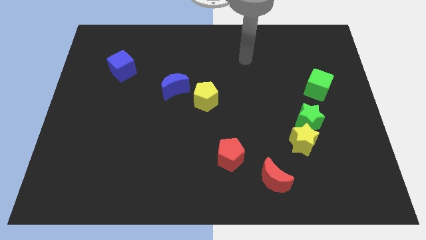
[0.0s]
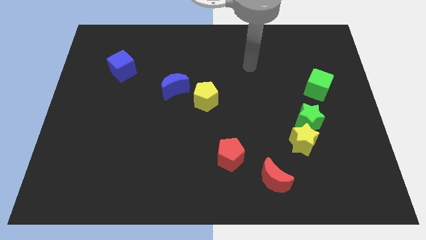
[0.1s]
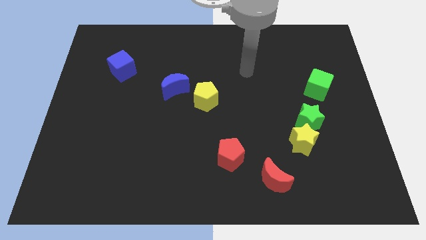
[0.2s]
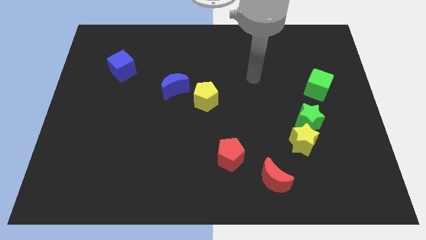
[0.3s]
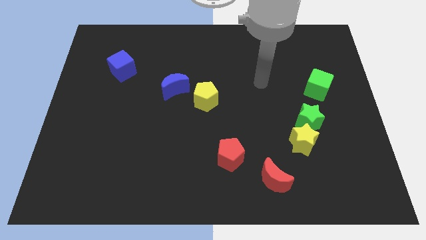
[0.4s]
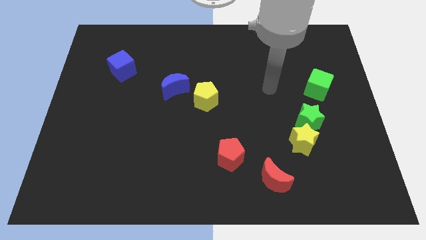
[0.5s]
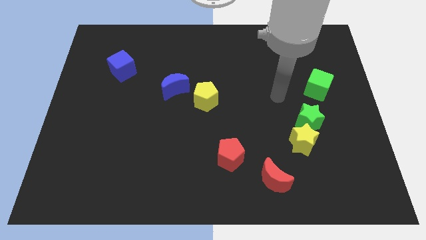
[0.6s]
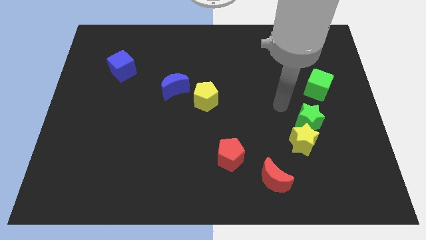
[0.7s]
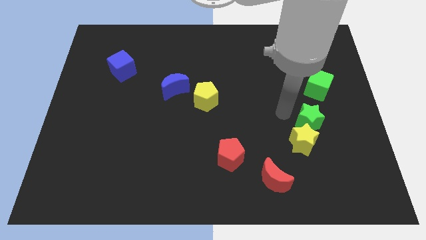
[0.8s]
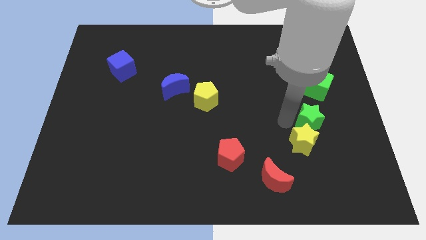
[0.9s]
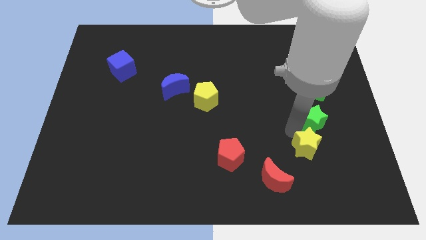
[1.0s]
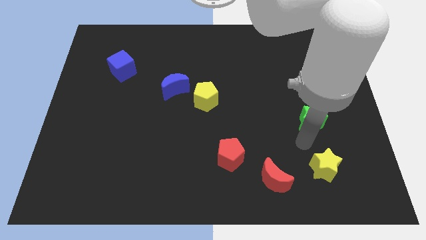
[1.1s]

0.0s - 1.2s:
separate the green star from the yellow star

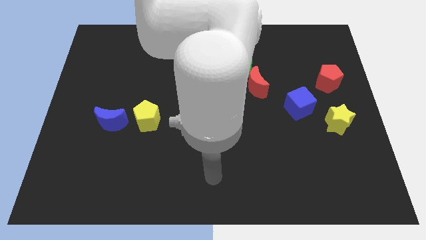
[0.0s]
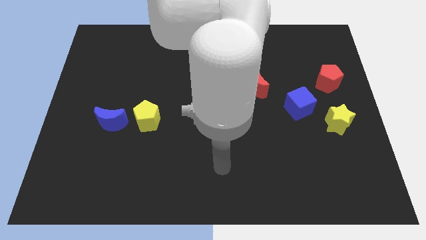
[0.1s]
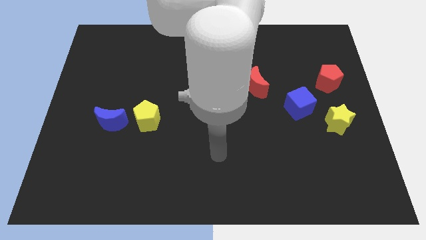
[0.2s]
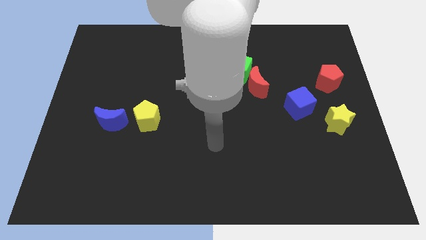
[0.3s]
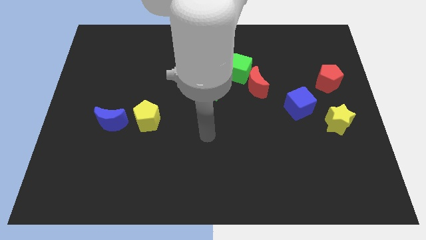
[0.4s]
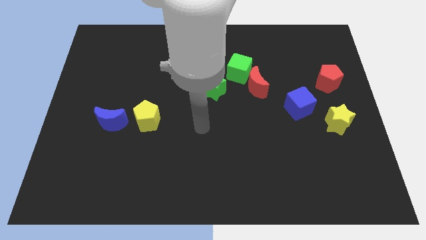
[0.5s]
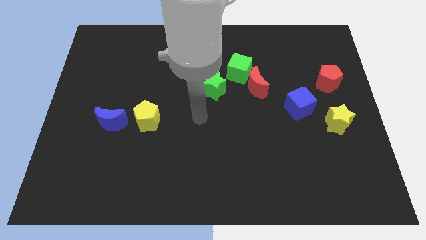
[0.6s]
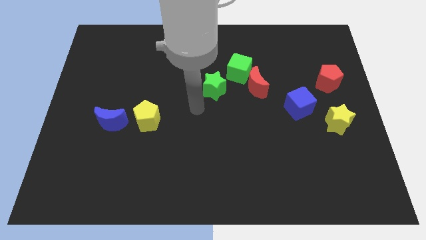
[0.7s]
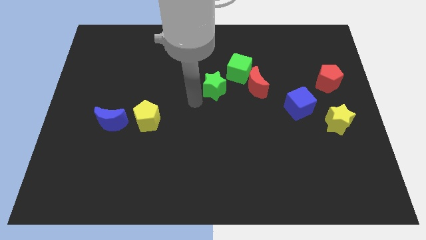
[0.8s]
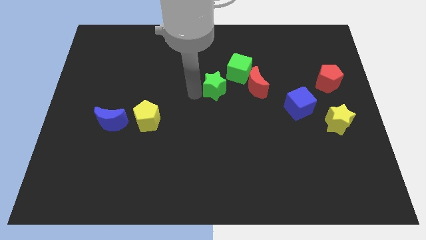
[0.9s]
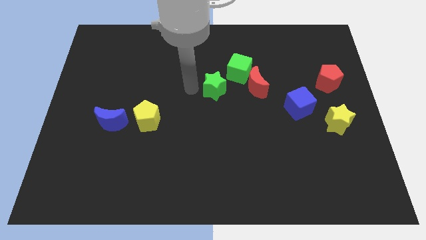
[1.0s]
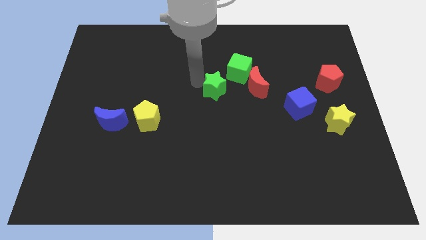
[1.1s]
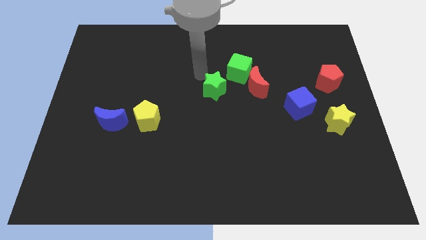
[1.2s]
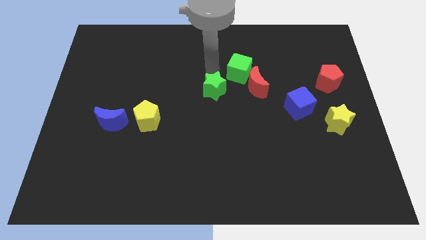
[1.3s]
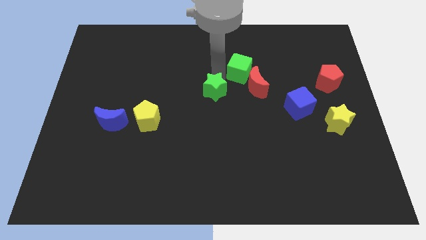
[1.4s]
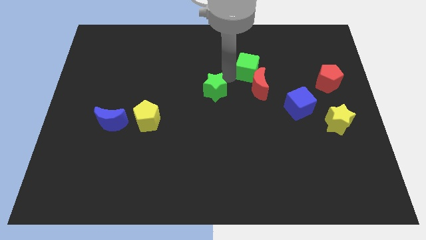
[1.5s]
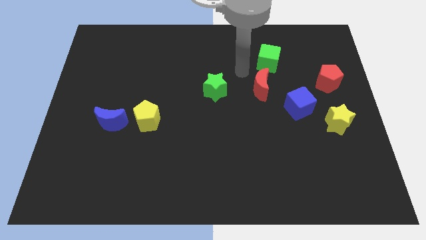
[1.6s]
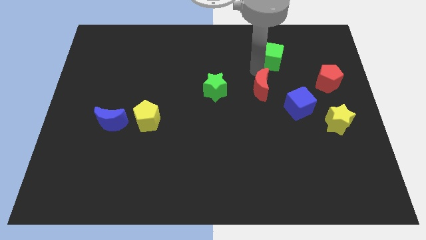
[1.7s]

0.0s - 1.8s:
move the red moon away from the green cube

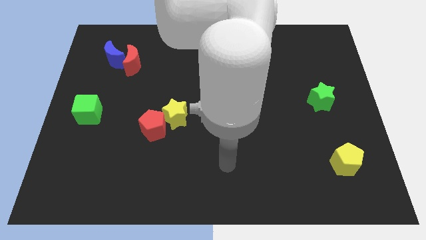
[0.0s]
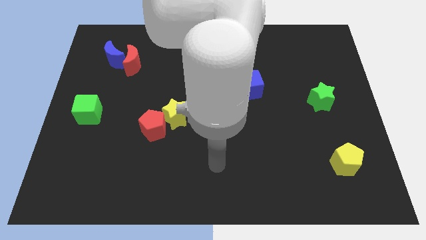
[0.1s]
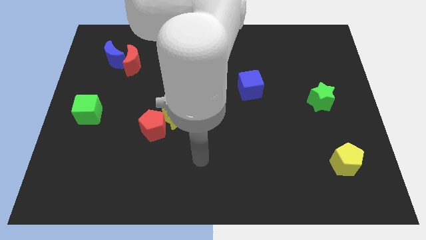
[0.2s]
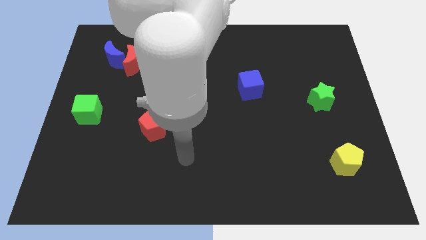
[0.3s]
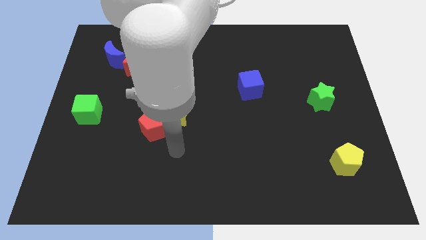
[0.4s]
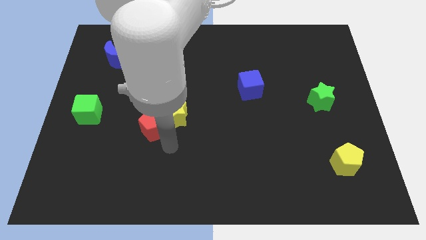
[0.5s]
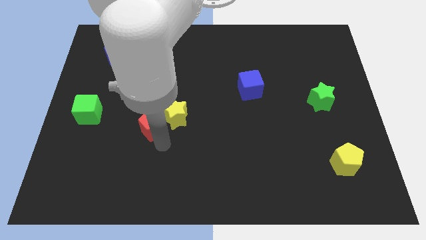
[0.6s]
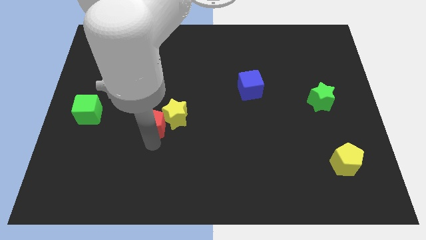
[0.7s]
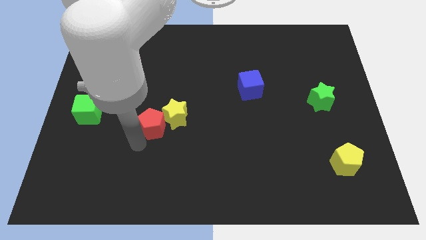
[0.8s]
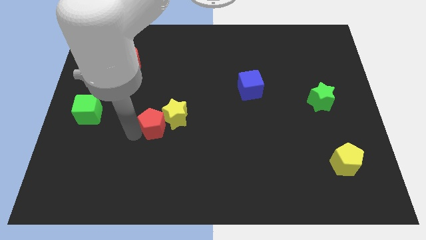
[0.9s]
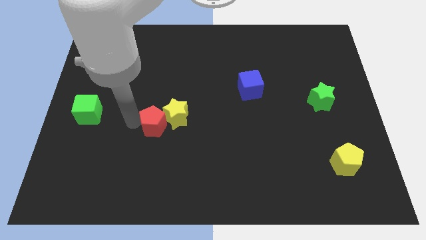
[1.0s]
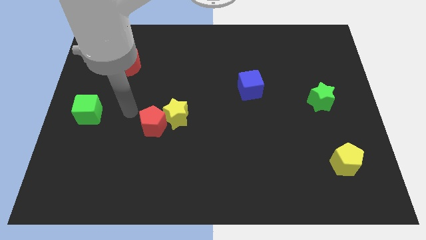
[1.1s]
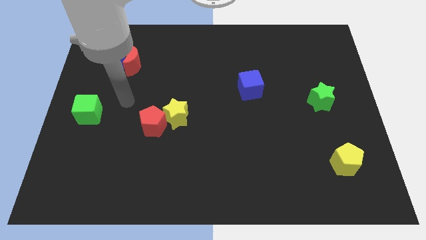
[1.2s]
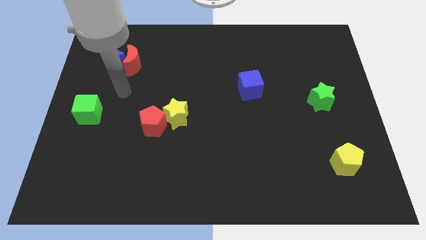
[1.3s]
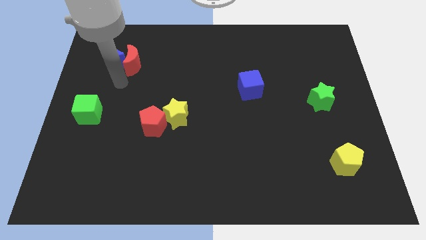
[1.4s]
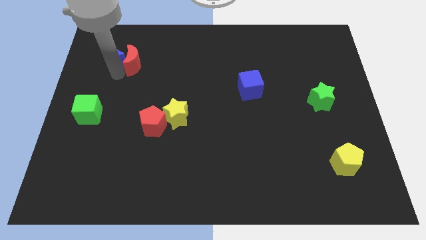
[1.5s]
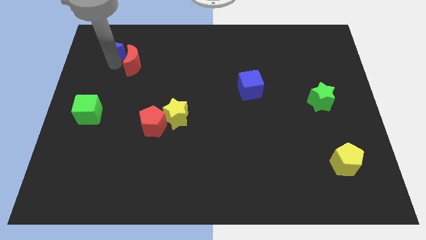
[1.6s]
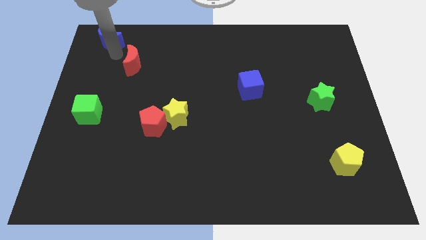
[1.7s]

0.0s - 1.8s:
move the red moon away from the blue moon

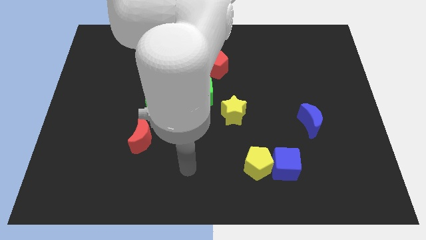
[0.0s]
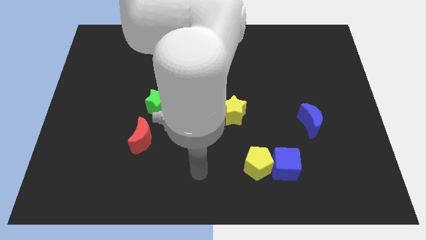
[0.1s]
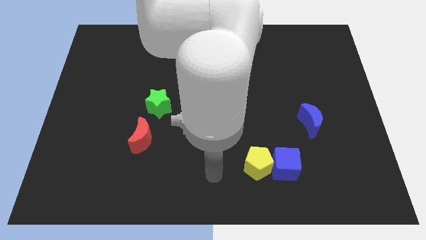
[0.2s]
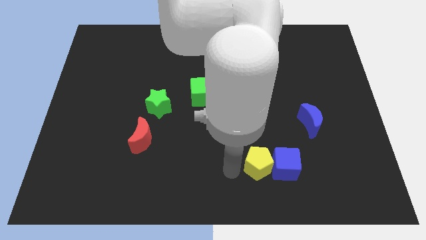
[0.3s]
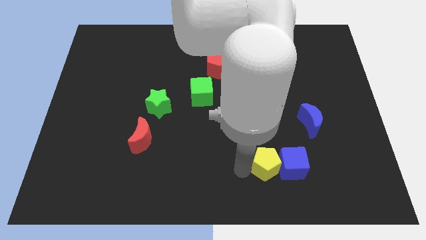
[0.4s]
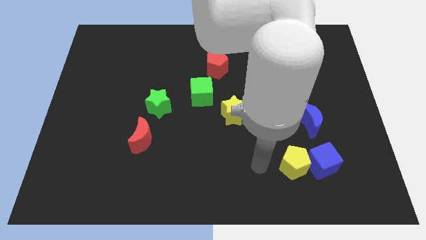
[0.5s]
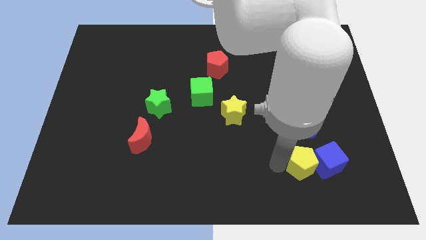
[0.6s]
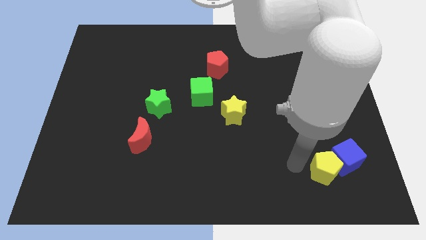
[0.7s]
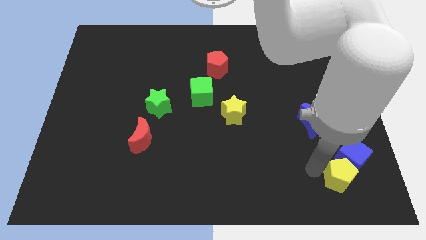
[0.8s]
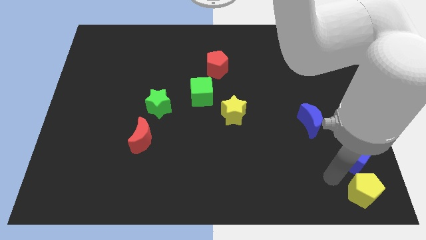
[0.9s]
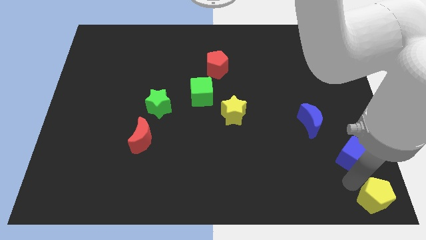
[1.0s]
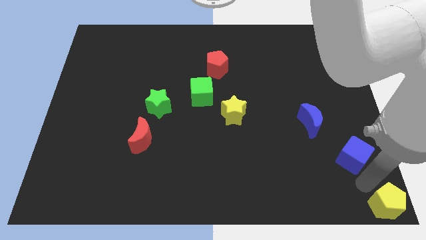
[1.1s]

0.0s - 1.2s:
separate the blue cube from the yellow pentagon

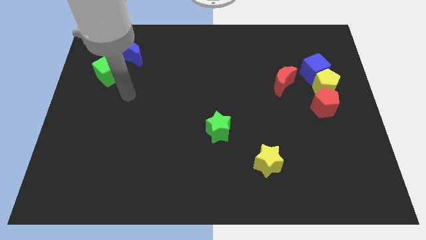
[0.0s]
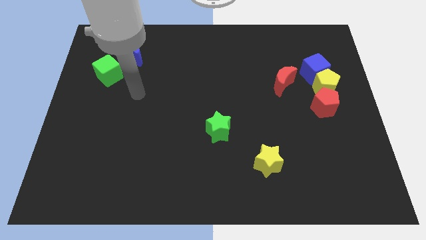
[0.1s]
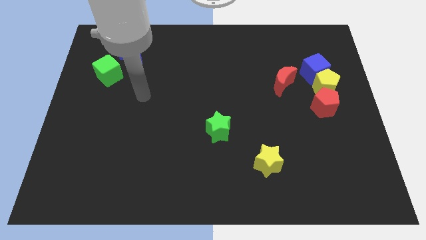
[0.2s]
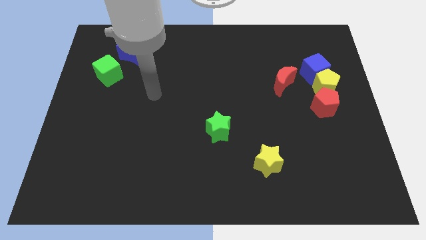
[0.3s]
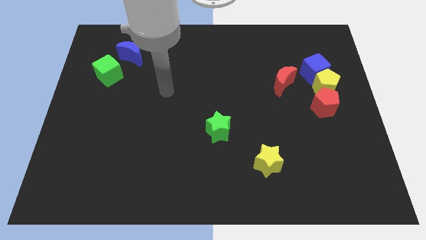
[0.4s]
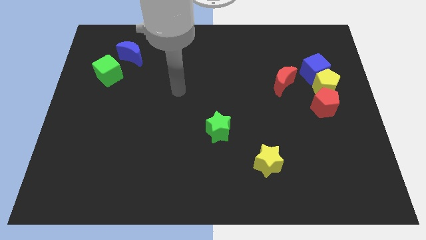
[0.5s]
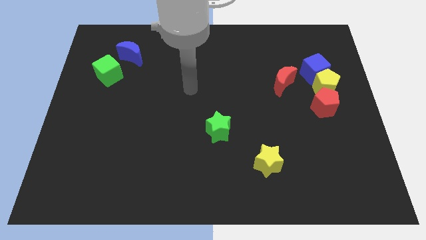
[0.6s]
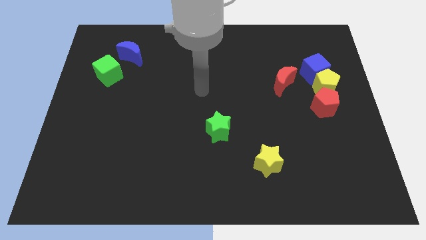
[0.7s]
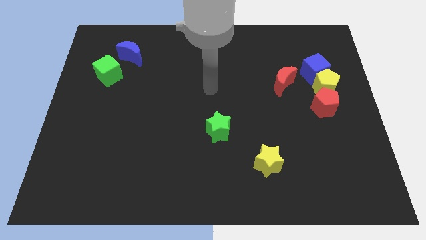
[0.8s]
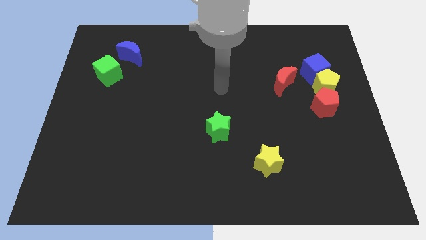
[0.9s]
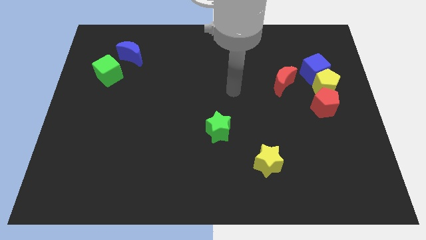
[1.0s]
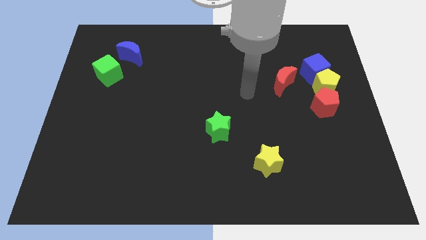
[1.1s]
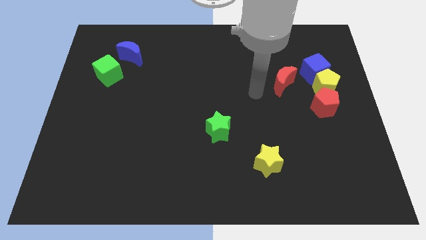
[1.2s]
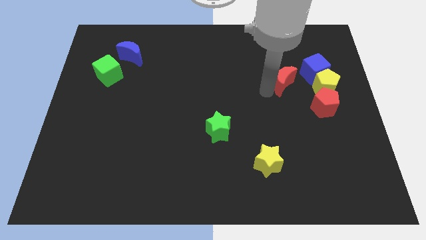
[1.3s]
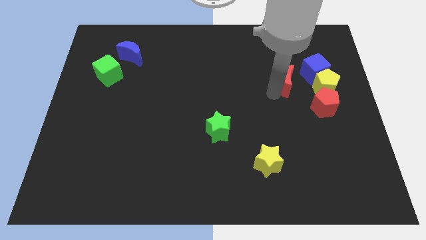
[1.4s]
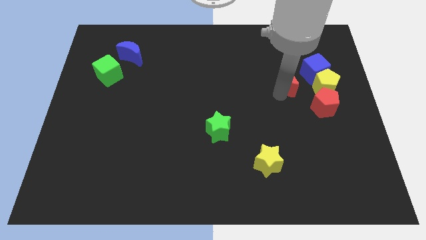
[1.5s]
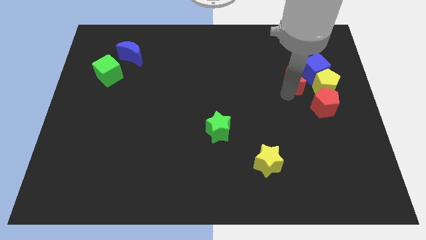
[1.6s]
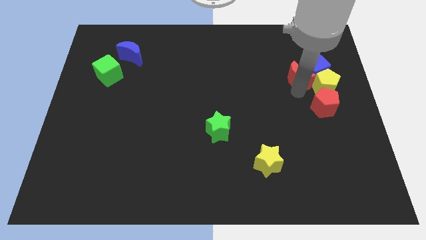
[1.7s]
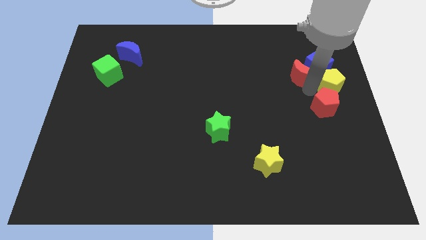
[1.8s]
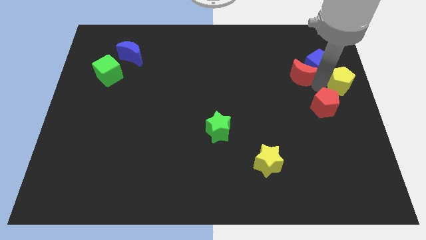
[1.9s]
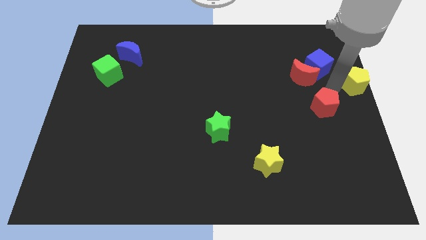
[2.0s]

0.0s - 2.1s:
separate the red pentagon from the yellow pentagon

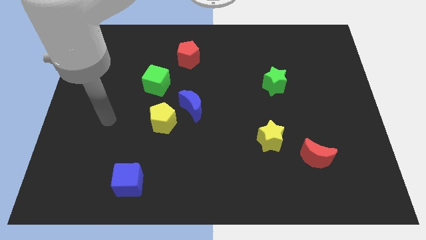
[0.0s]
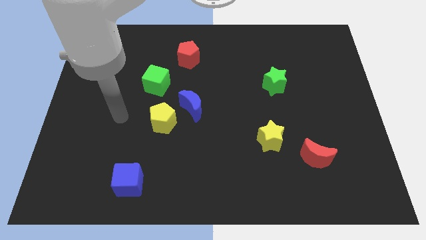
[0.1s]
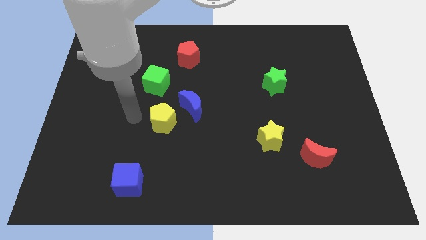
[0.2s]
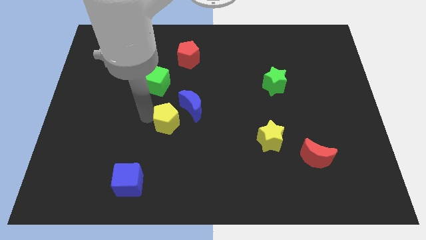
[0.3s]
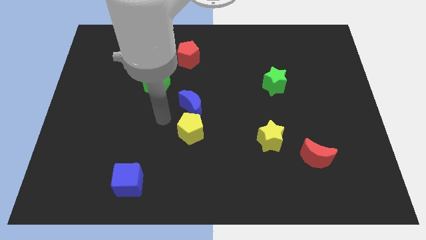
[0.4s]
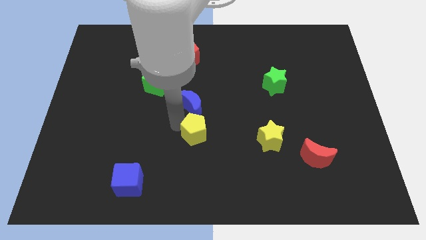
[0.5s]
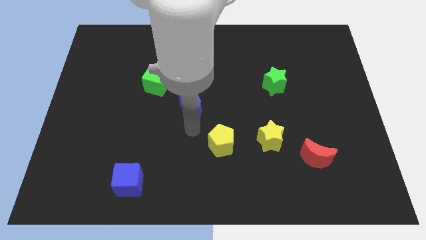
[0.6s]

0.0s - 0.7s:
move the blue moon away from the yellow pentagon

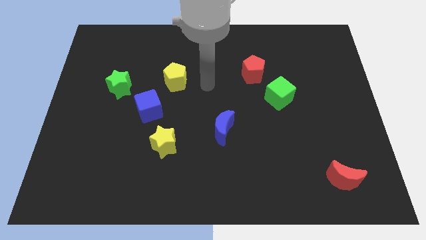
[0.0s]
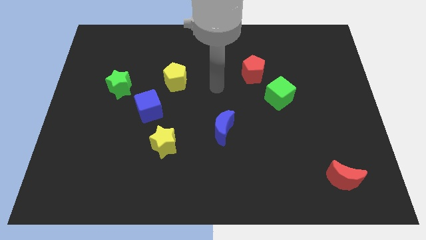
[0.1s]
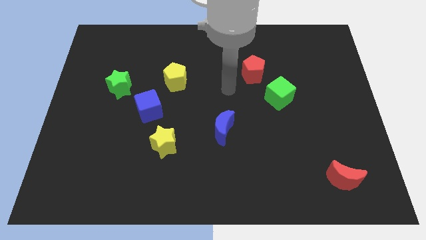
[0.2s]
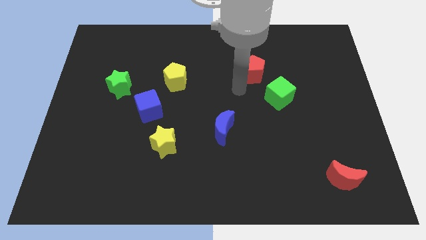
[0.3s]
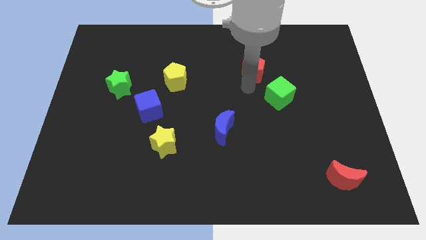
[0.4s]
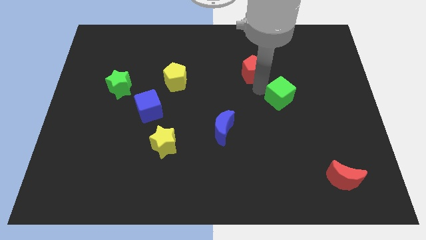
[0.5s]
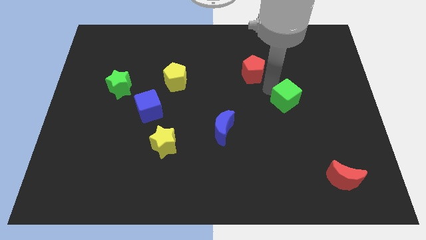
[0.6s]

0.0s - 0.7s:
move the red pentagon away from the green cube
